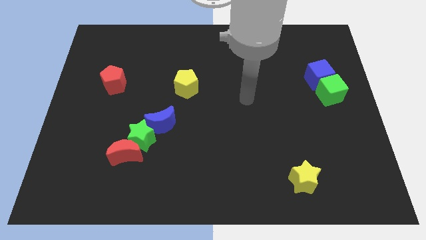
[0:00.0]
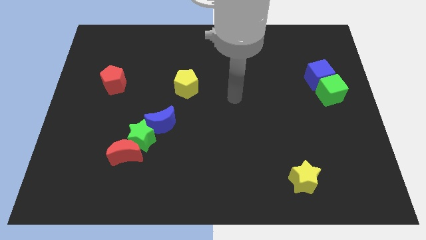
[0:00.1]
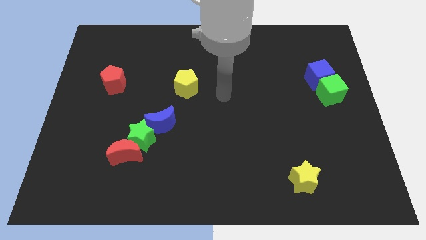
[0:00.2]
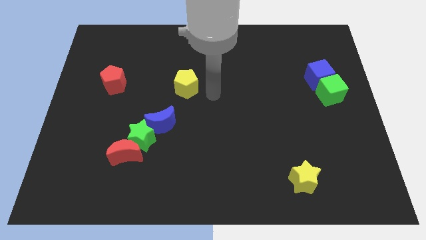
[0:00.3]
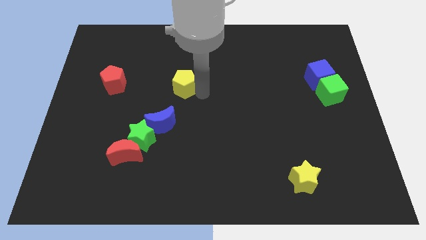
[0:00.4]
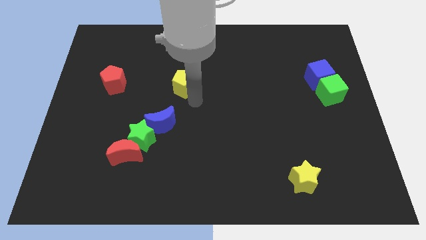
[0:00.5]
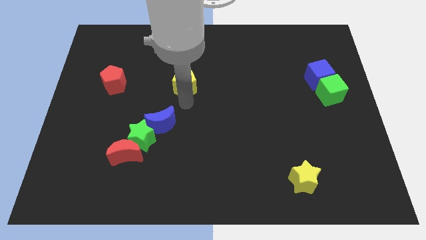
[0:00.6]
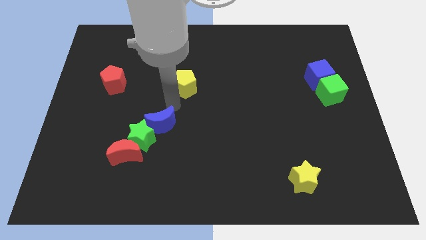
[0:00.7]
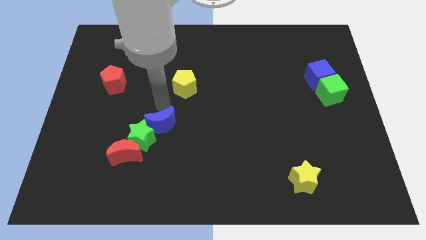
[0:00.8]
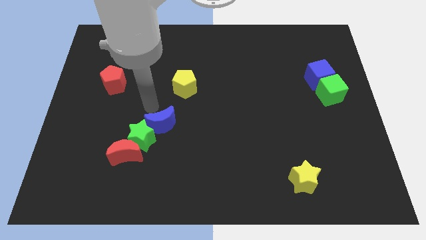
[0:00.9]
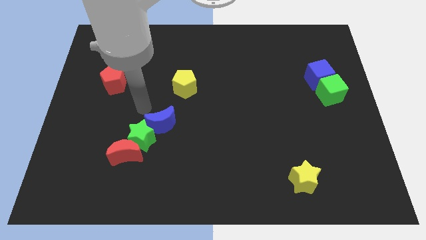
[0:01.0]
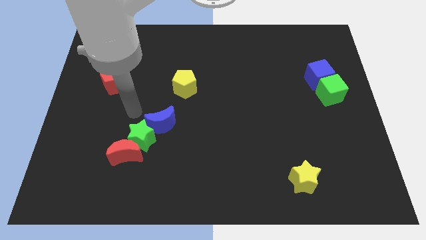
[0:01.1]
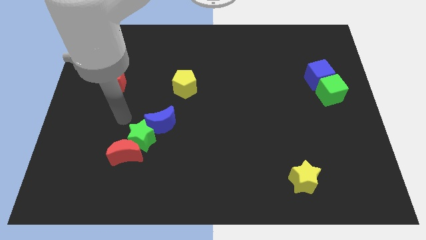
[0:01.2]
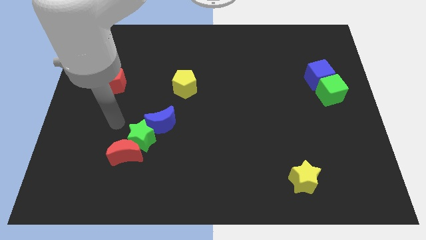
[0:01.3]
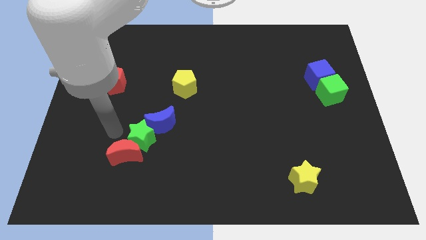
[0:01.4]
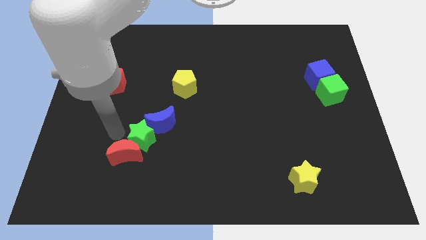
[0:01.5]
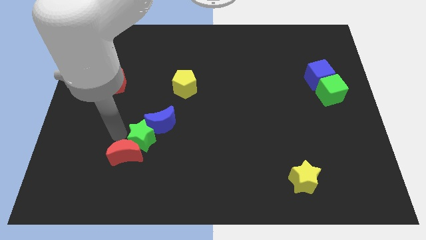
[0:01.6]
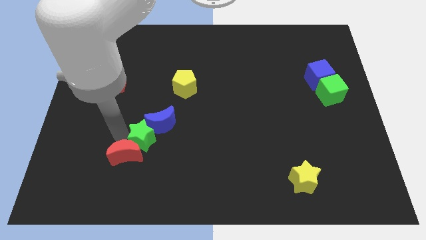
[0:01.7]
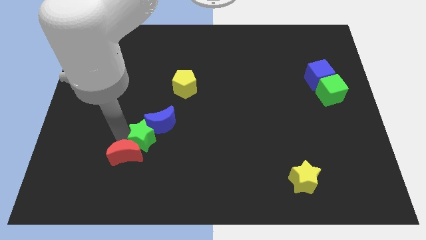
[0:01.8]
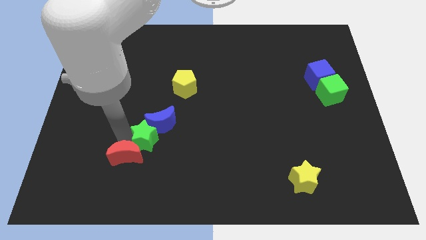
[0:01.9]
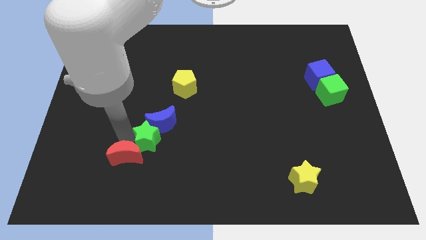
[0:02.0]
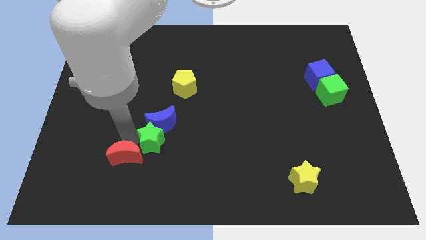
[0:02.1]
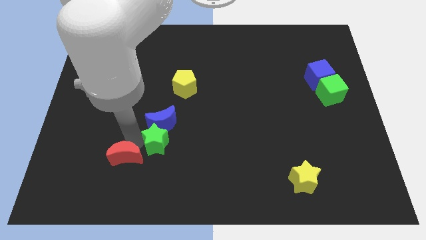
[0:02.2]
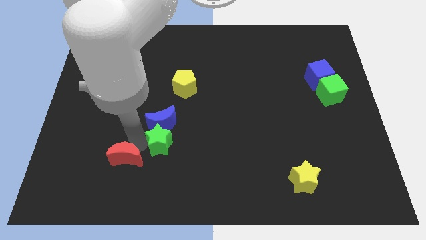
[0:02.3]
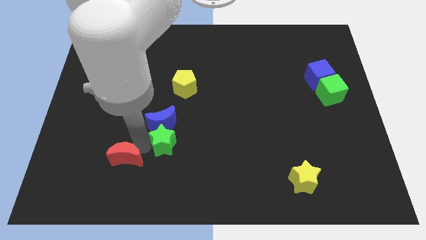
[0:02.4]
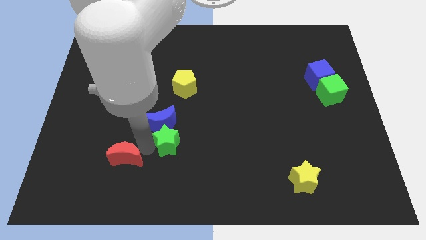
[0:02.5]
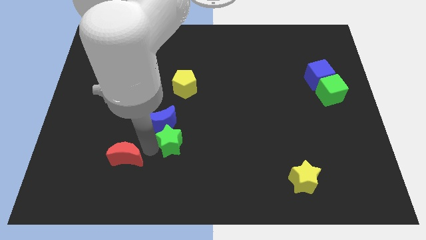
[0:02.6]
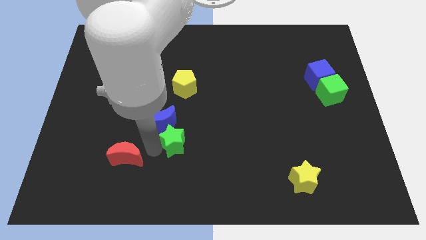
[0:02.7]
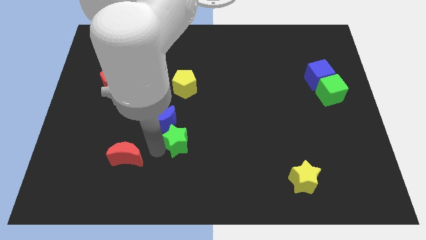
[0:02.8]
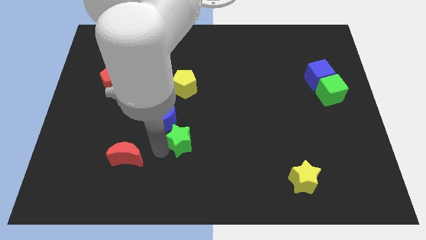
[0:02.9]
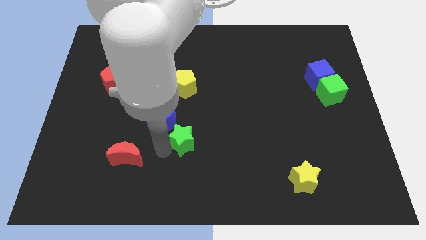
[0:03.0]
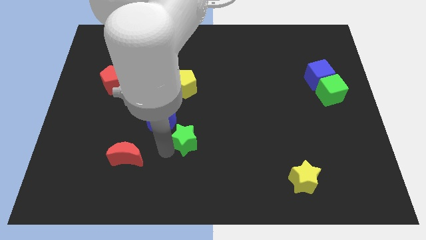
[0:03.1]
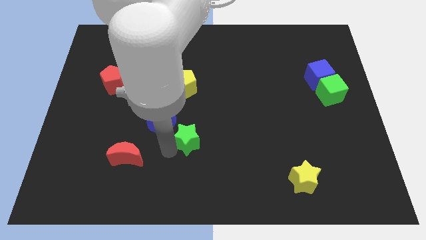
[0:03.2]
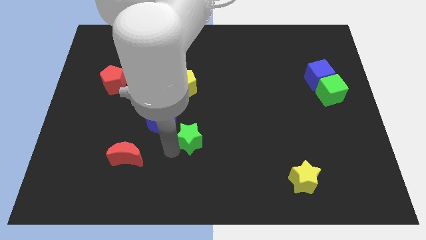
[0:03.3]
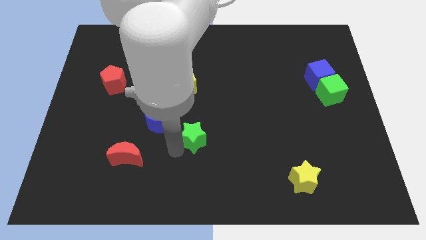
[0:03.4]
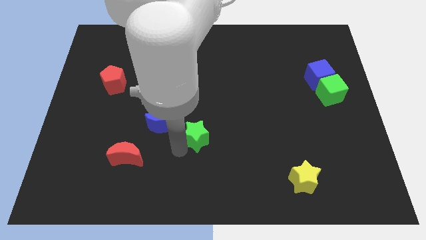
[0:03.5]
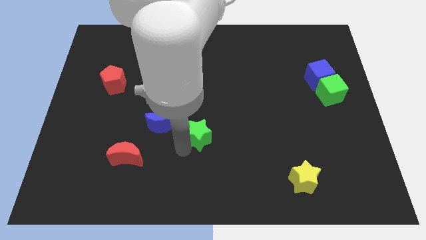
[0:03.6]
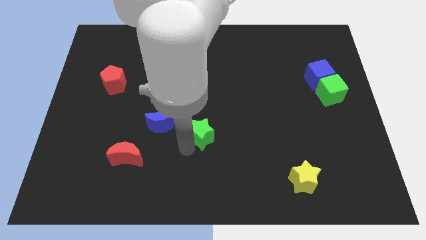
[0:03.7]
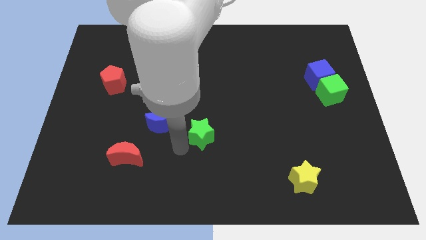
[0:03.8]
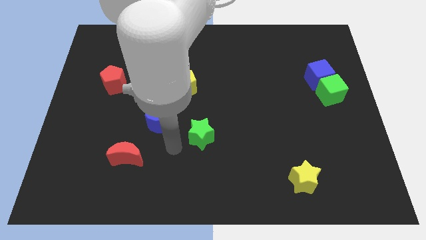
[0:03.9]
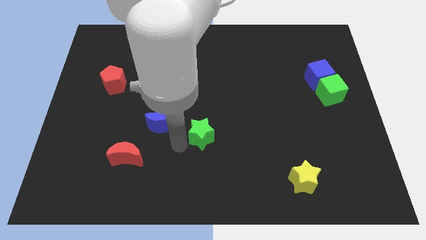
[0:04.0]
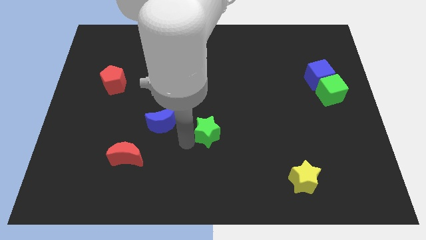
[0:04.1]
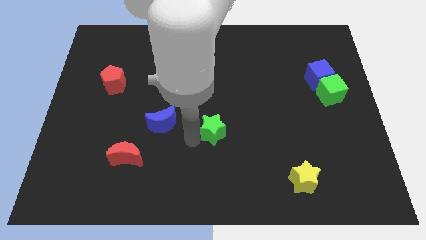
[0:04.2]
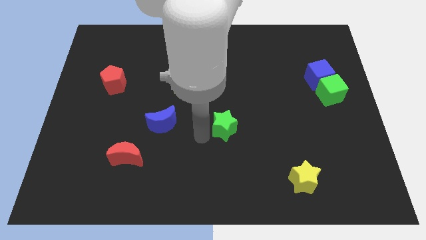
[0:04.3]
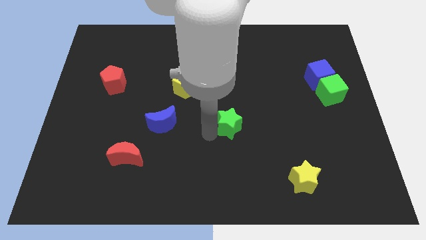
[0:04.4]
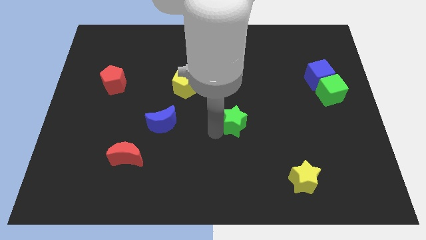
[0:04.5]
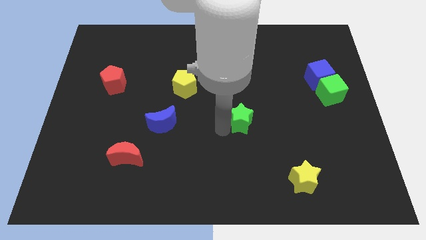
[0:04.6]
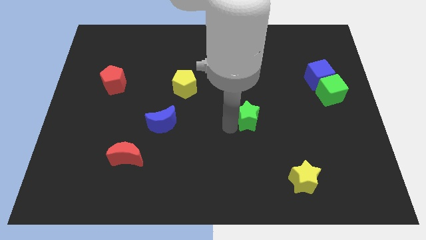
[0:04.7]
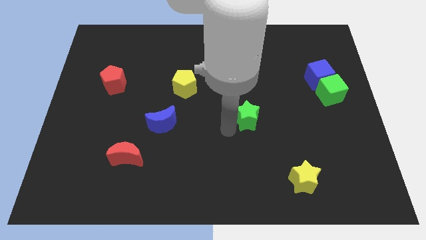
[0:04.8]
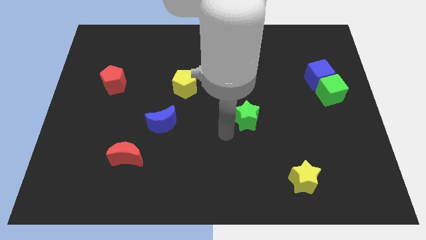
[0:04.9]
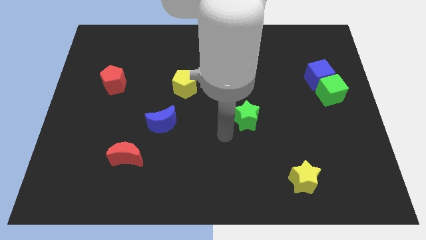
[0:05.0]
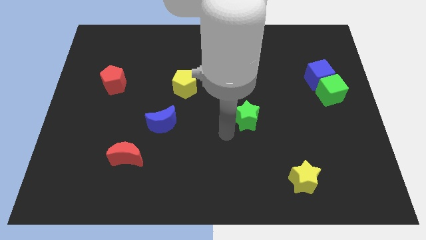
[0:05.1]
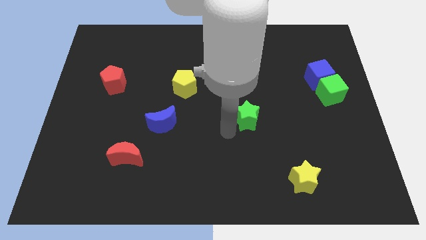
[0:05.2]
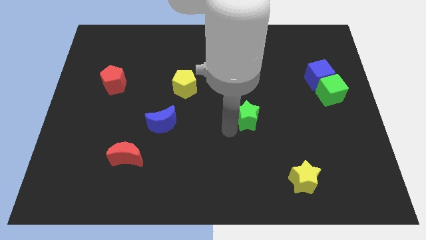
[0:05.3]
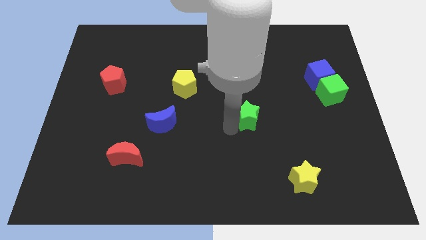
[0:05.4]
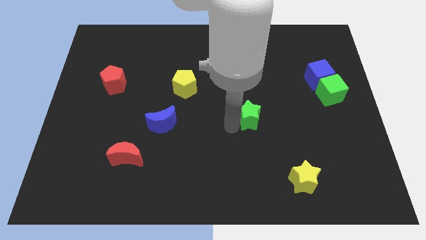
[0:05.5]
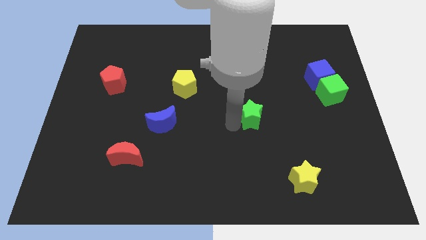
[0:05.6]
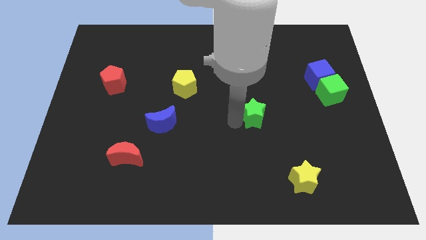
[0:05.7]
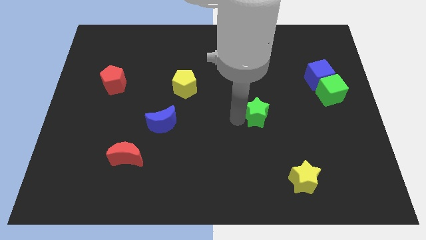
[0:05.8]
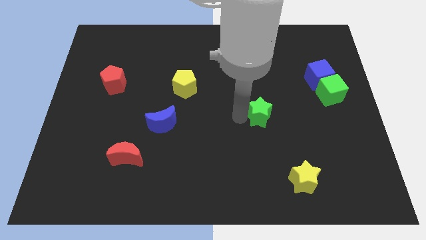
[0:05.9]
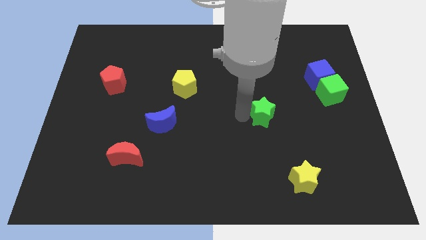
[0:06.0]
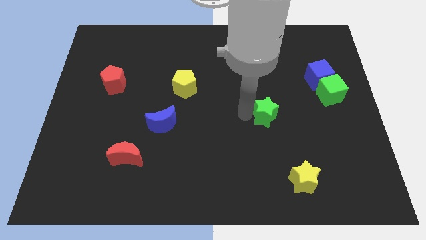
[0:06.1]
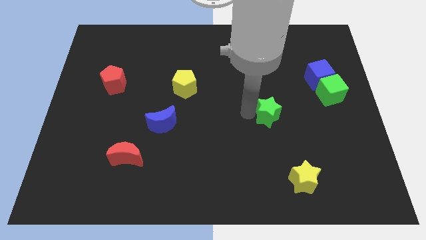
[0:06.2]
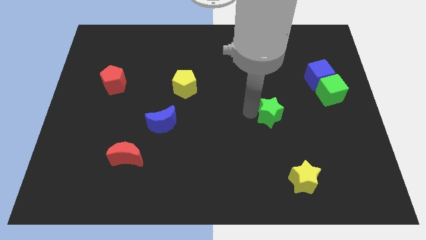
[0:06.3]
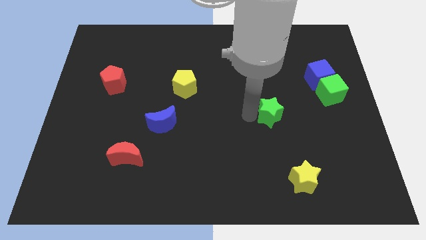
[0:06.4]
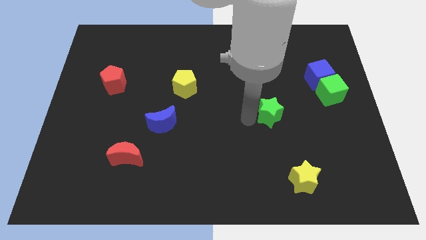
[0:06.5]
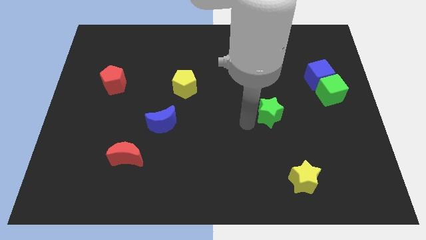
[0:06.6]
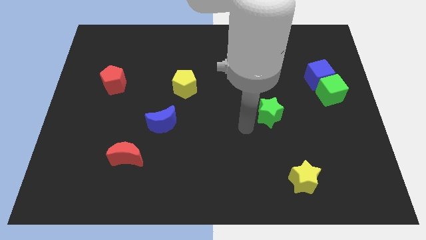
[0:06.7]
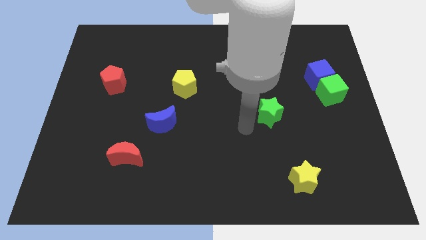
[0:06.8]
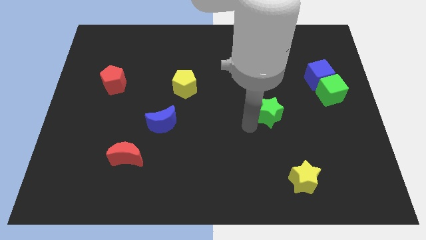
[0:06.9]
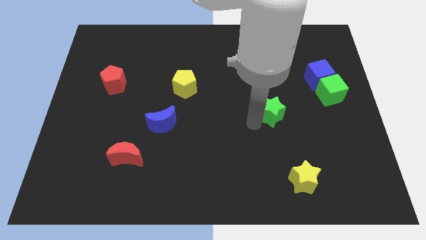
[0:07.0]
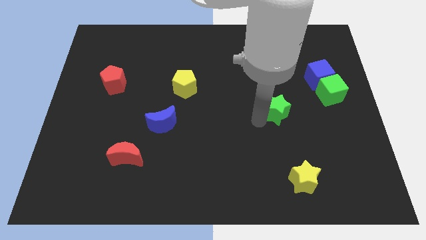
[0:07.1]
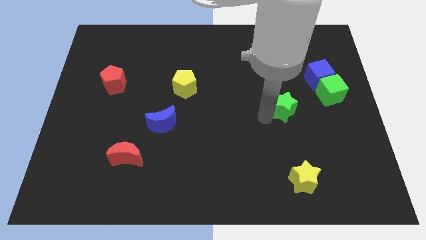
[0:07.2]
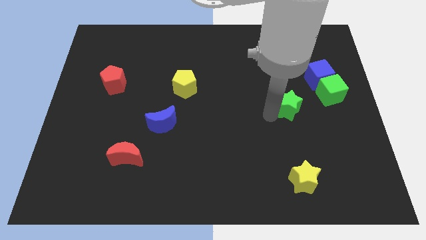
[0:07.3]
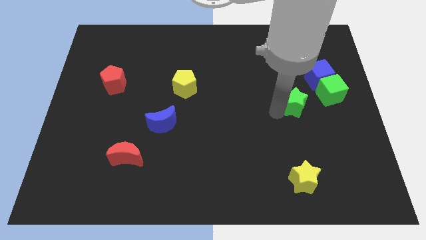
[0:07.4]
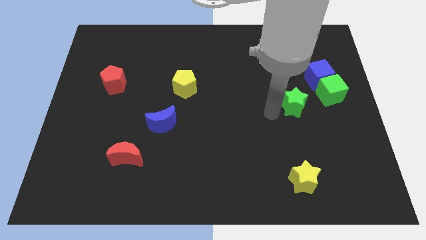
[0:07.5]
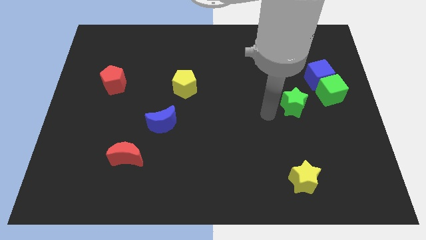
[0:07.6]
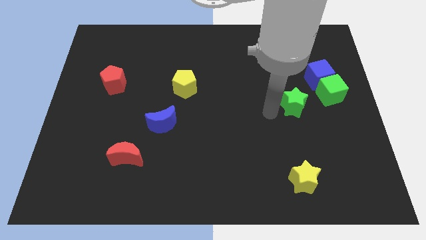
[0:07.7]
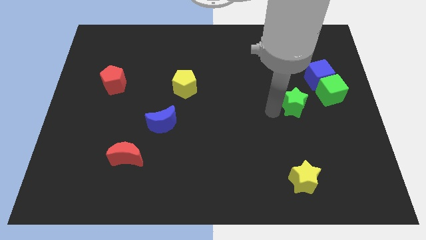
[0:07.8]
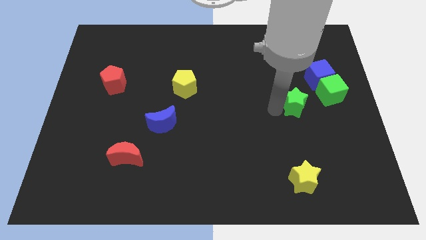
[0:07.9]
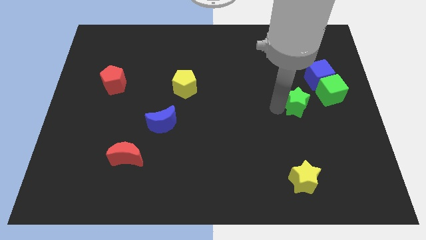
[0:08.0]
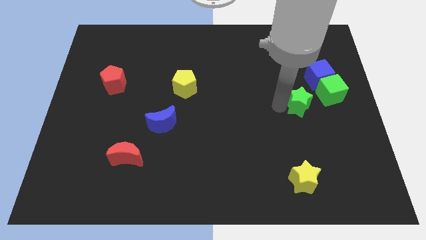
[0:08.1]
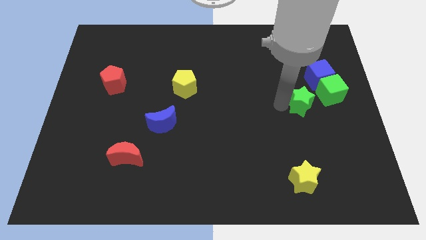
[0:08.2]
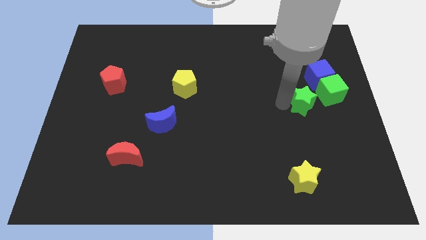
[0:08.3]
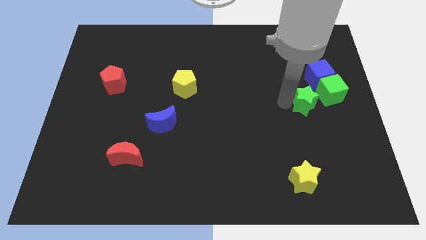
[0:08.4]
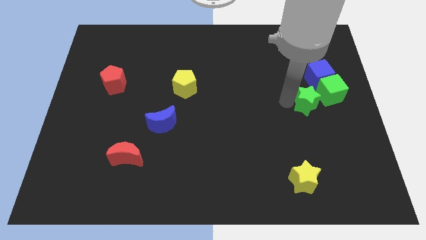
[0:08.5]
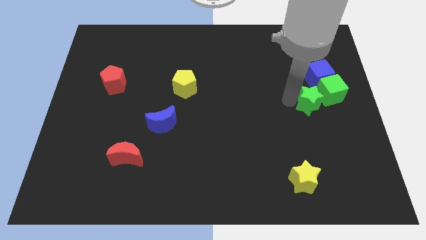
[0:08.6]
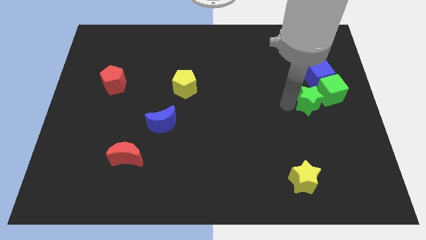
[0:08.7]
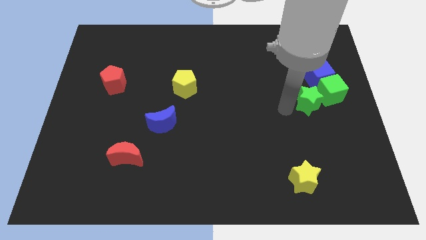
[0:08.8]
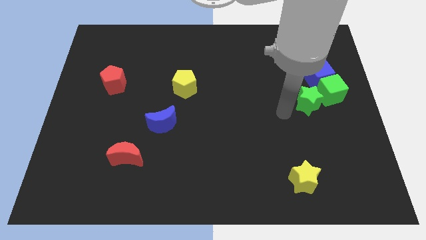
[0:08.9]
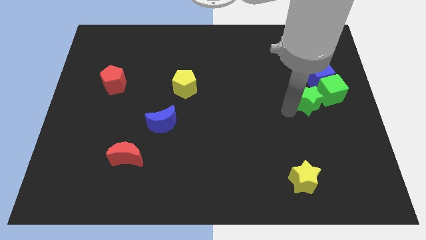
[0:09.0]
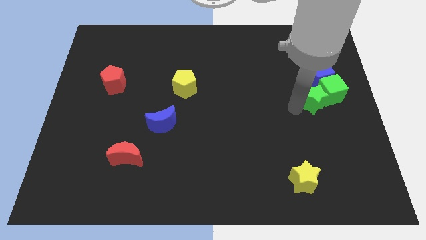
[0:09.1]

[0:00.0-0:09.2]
push the green star next to the green cube
